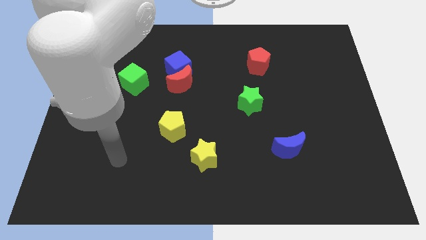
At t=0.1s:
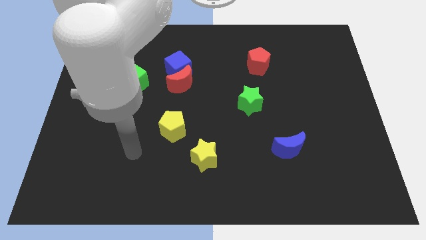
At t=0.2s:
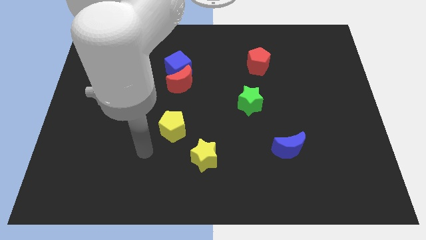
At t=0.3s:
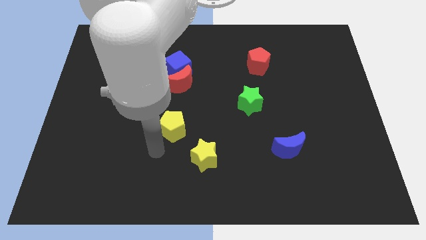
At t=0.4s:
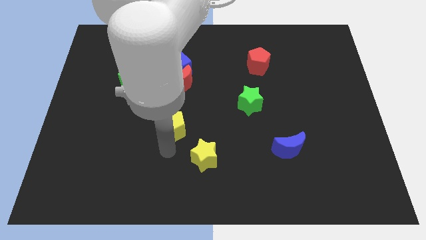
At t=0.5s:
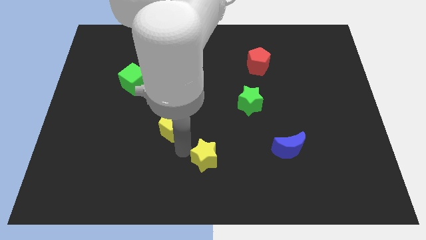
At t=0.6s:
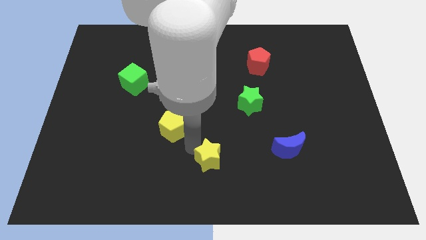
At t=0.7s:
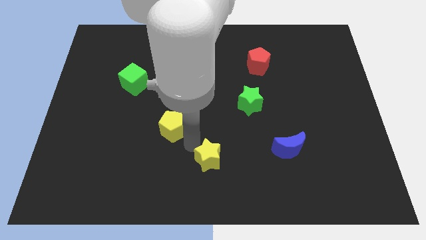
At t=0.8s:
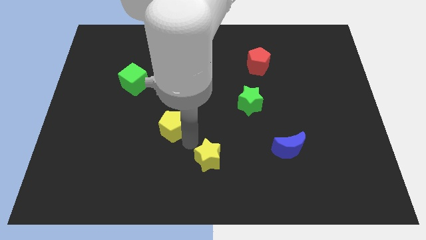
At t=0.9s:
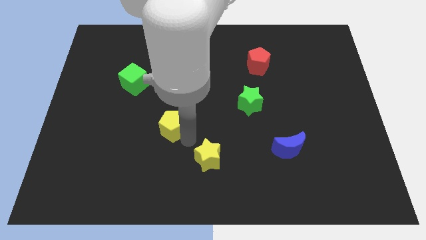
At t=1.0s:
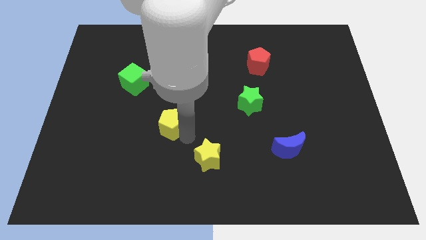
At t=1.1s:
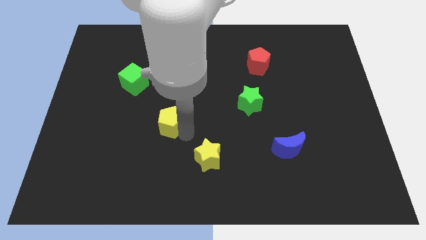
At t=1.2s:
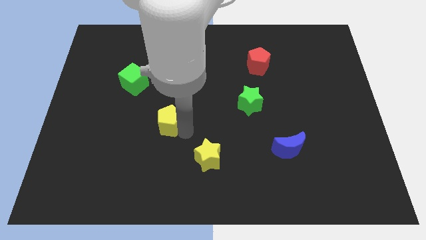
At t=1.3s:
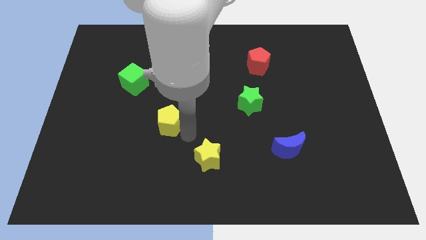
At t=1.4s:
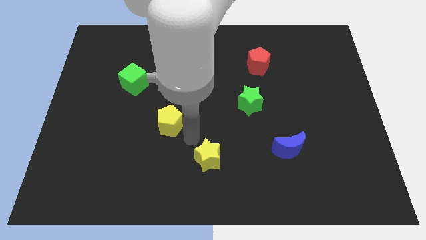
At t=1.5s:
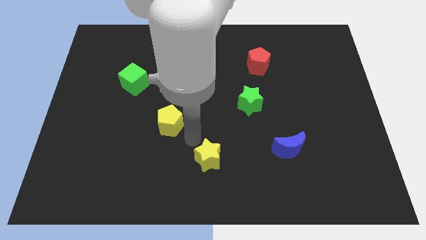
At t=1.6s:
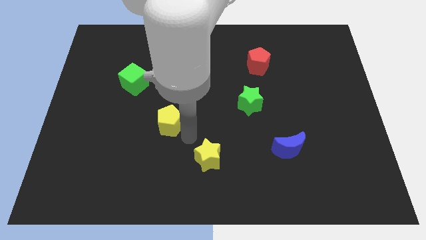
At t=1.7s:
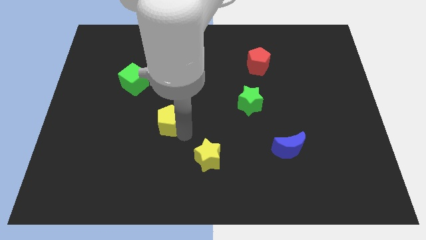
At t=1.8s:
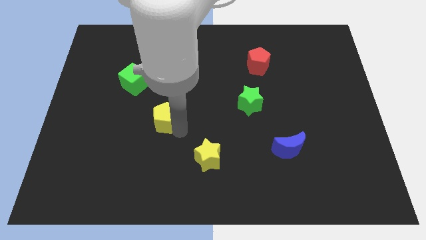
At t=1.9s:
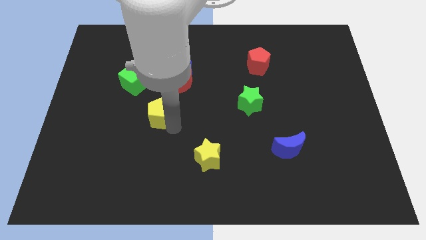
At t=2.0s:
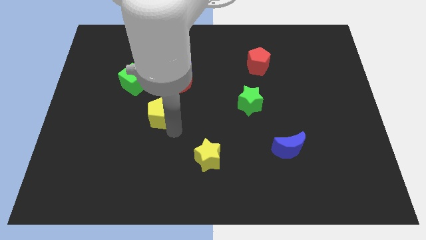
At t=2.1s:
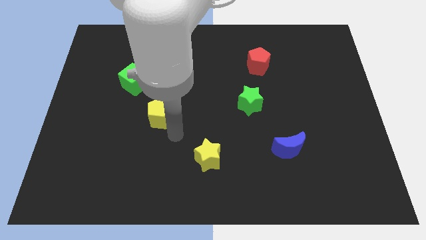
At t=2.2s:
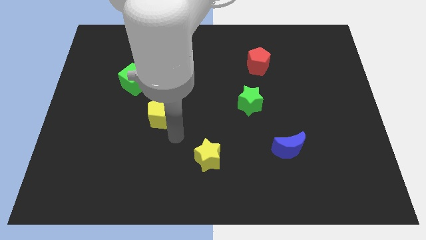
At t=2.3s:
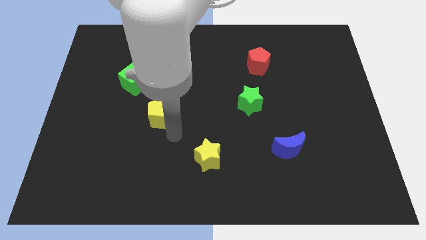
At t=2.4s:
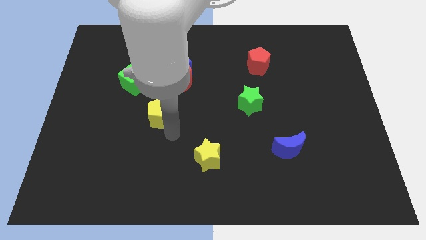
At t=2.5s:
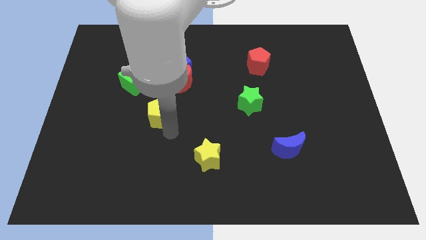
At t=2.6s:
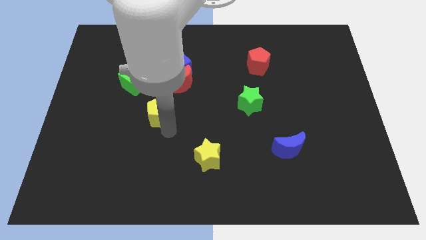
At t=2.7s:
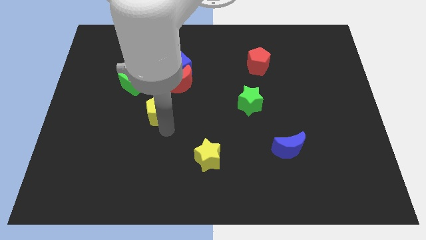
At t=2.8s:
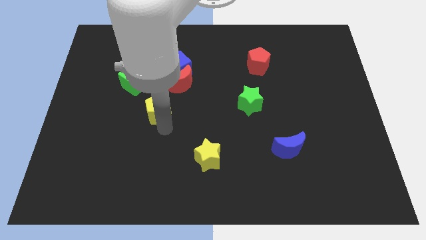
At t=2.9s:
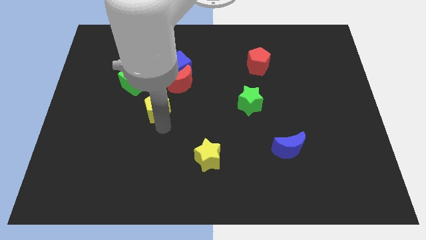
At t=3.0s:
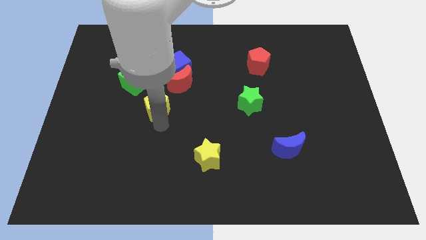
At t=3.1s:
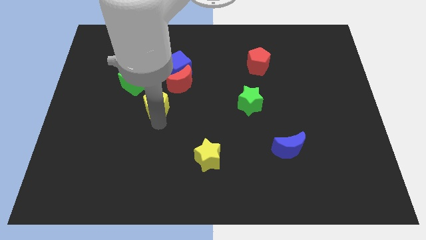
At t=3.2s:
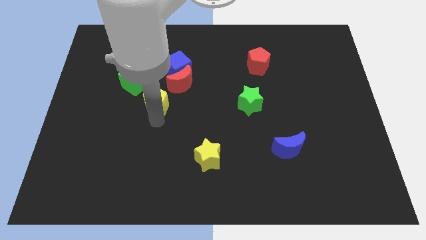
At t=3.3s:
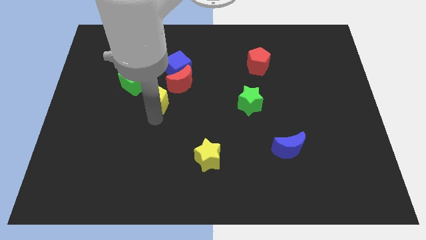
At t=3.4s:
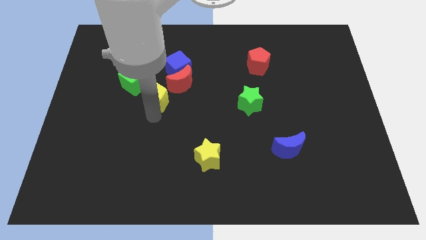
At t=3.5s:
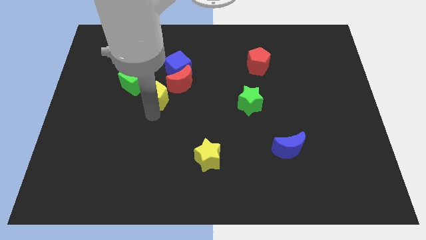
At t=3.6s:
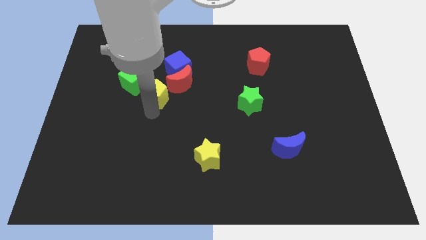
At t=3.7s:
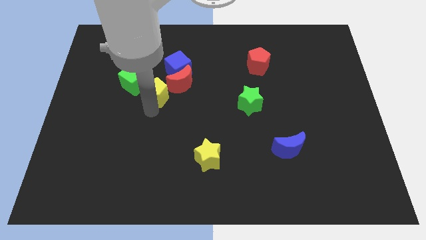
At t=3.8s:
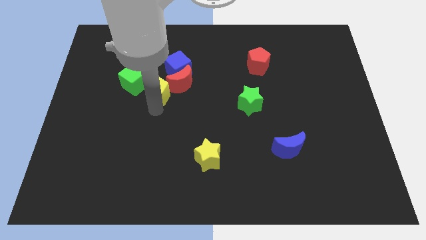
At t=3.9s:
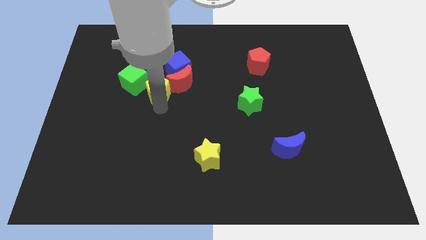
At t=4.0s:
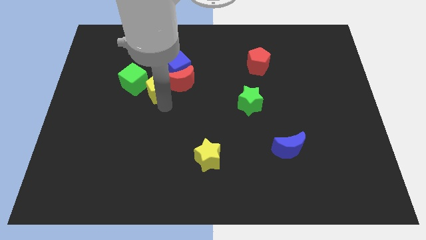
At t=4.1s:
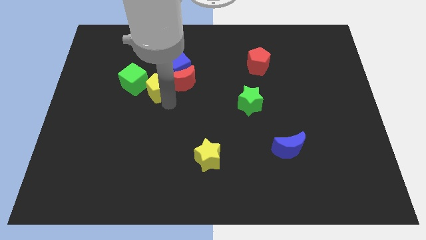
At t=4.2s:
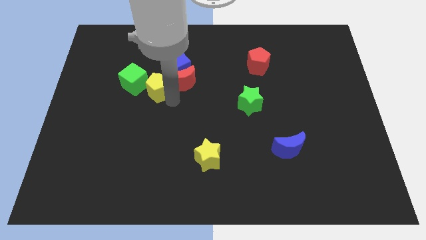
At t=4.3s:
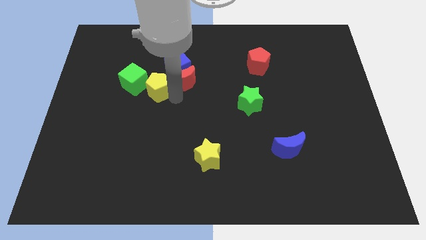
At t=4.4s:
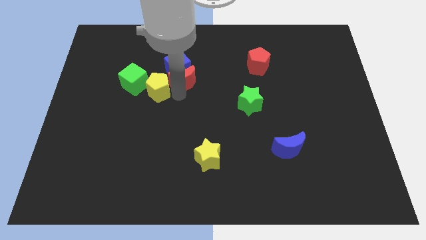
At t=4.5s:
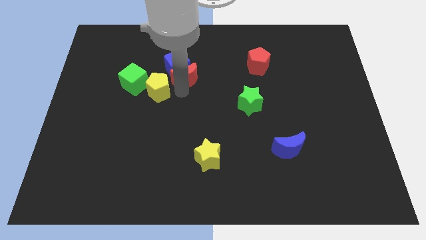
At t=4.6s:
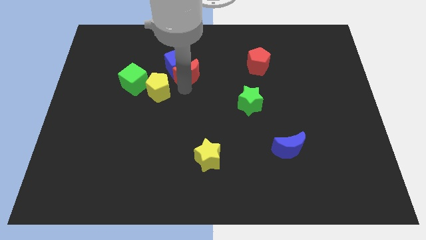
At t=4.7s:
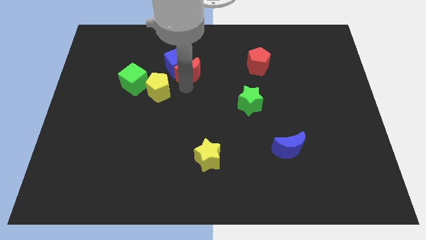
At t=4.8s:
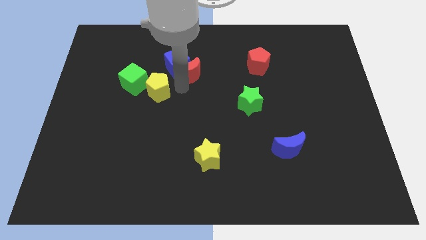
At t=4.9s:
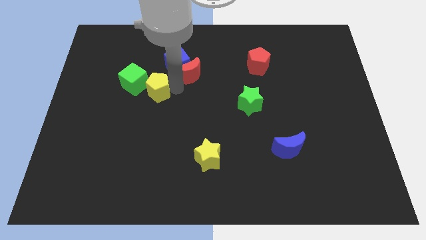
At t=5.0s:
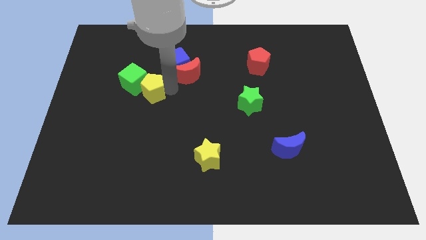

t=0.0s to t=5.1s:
put the yellow pentagon close to the green cube

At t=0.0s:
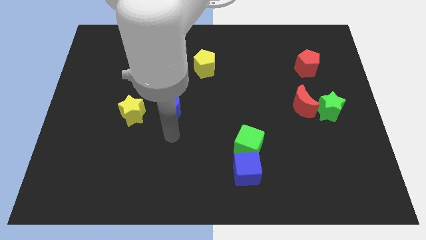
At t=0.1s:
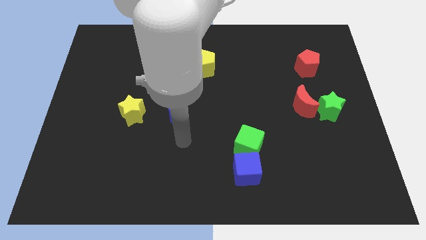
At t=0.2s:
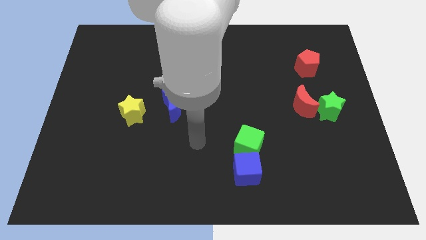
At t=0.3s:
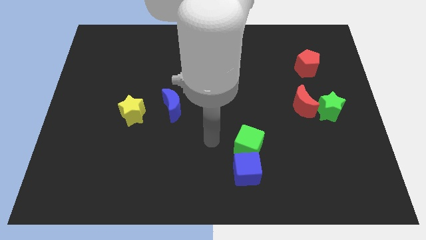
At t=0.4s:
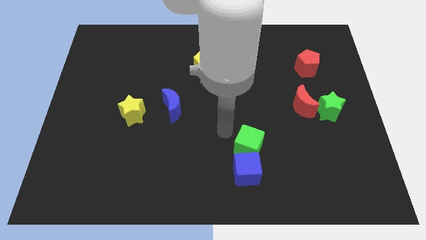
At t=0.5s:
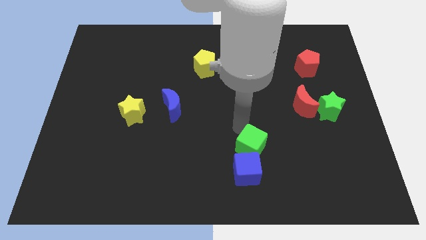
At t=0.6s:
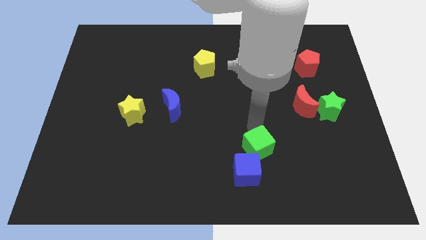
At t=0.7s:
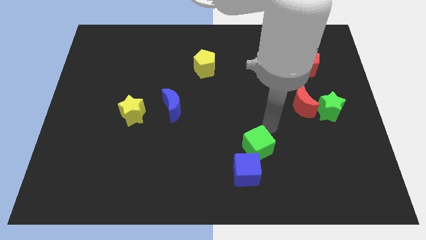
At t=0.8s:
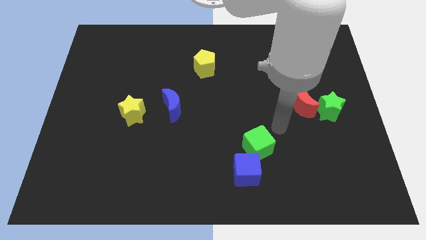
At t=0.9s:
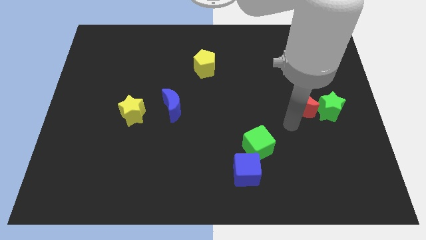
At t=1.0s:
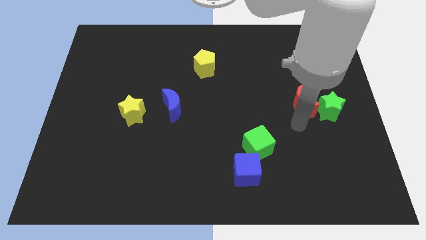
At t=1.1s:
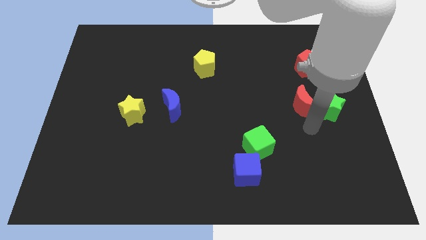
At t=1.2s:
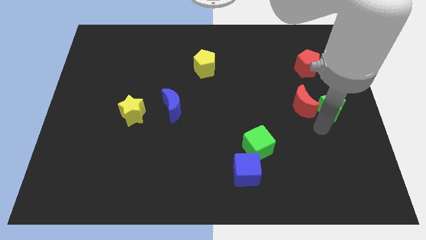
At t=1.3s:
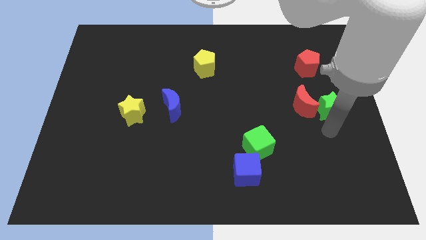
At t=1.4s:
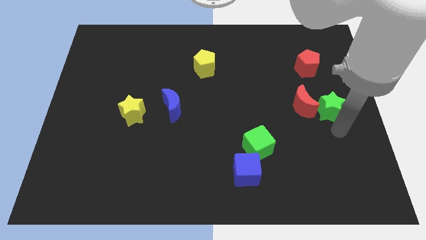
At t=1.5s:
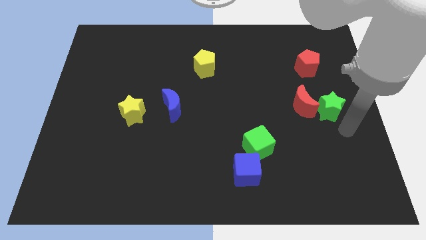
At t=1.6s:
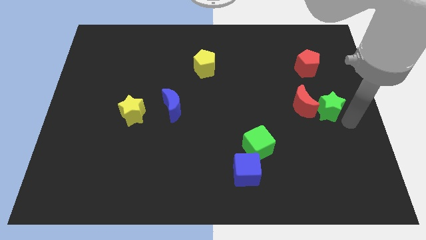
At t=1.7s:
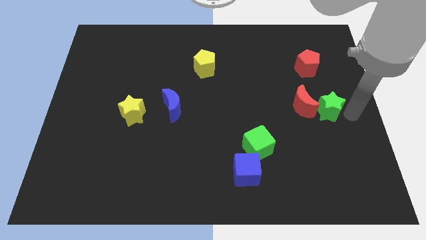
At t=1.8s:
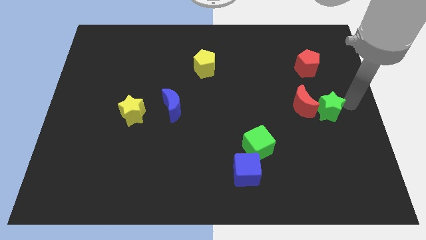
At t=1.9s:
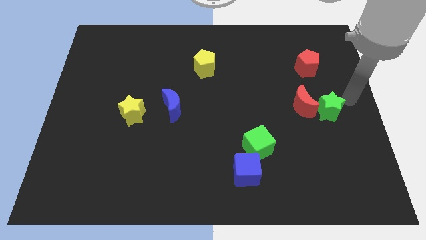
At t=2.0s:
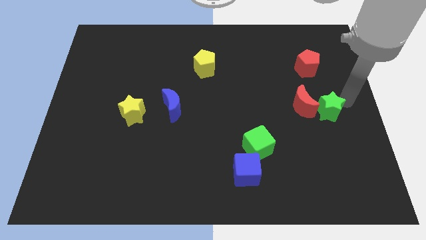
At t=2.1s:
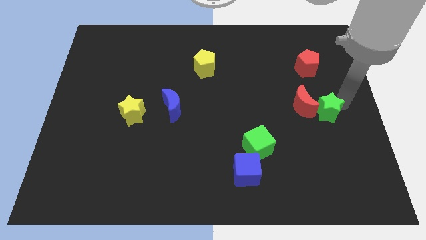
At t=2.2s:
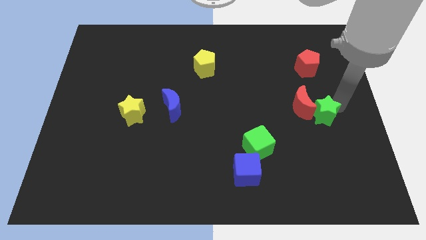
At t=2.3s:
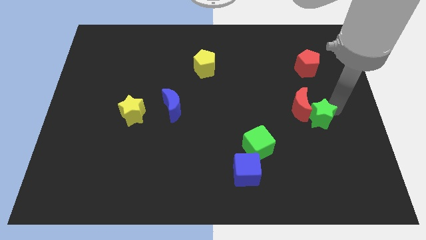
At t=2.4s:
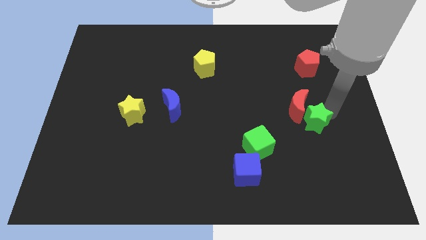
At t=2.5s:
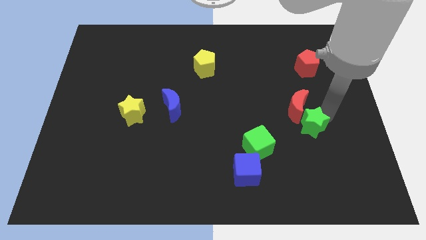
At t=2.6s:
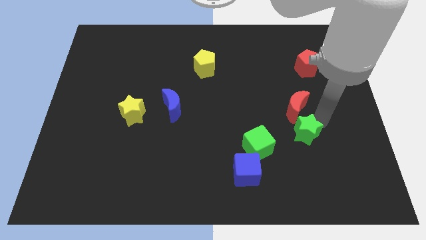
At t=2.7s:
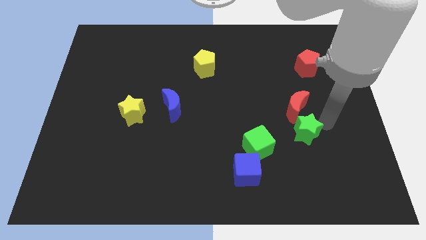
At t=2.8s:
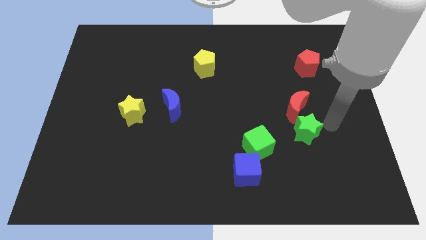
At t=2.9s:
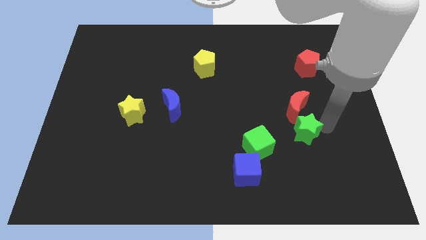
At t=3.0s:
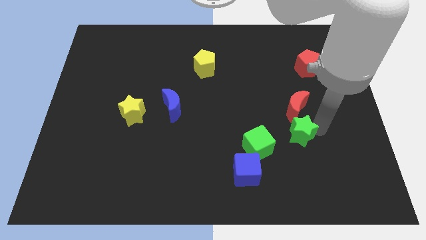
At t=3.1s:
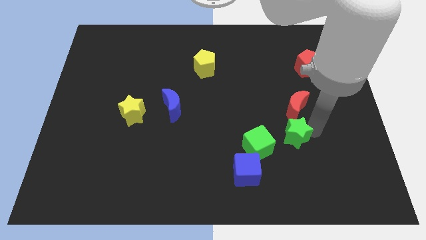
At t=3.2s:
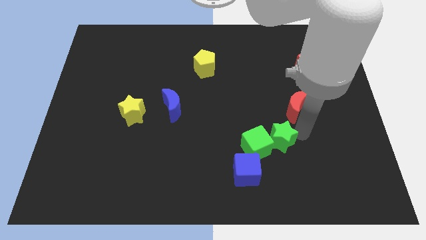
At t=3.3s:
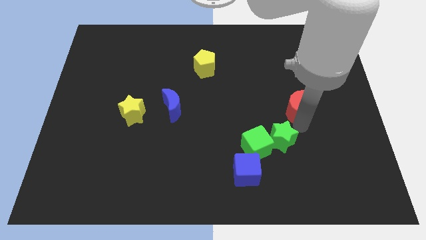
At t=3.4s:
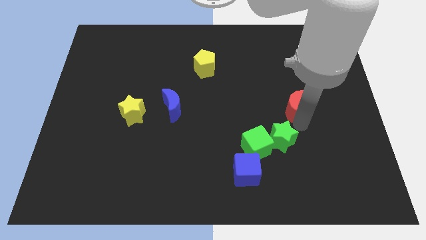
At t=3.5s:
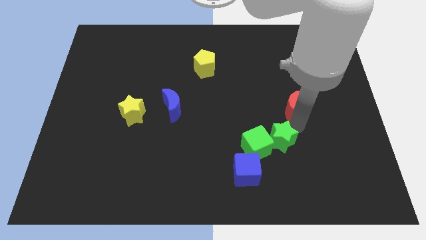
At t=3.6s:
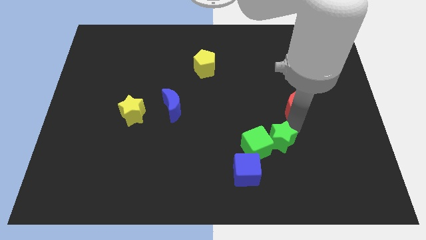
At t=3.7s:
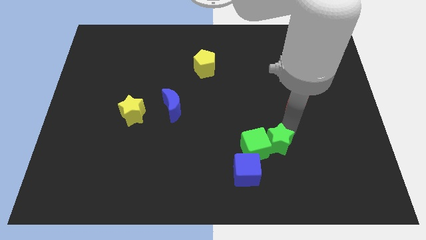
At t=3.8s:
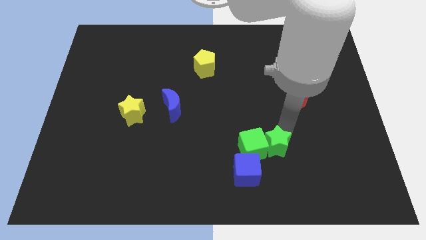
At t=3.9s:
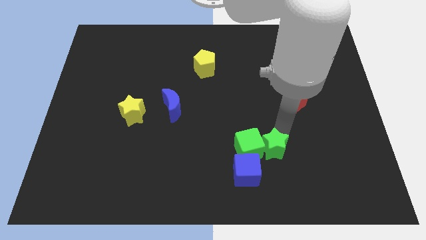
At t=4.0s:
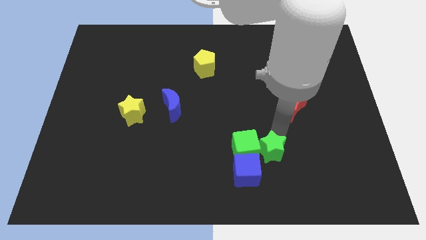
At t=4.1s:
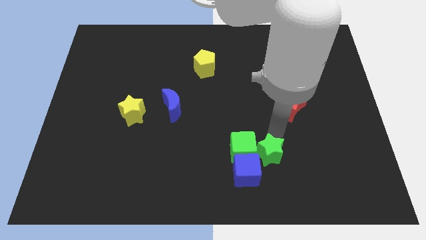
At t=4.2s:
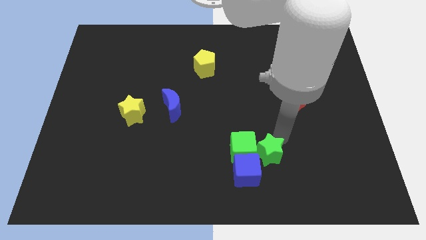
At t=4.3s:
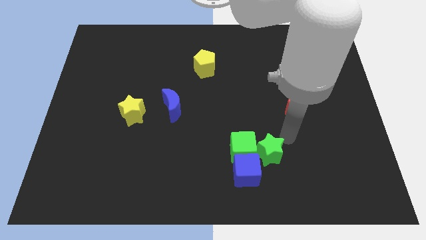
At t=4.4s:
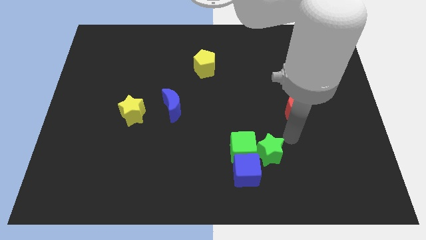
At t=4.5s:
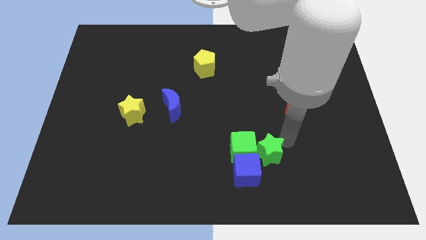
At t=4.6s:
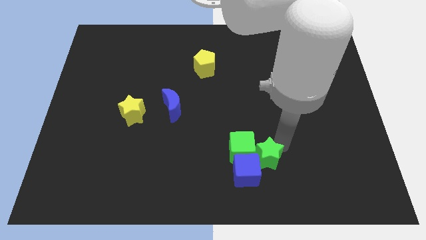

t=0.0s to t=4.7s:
push the green star to the blue cube
